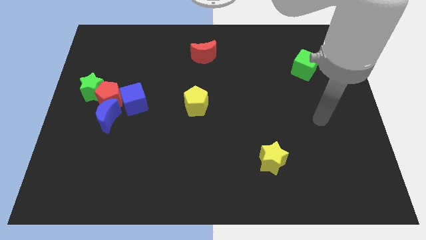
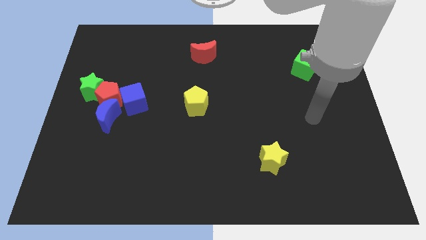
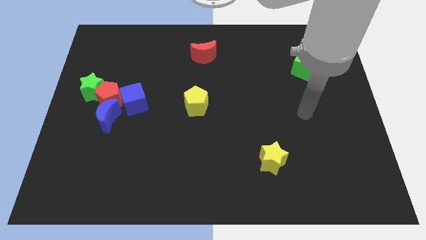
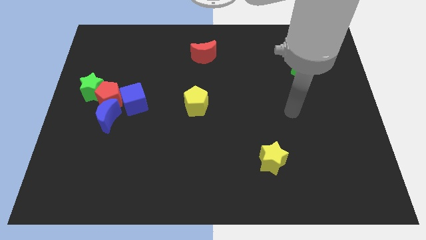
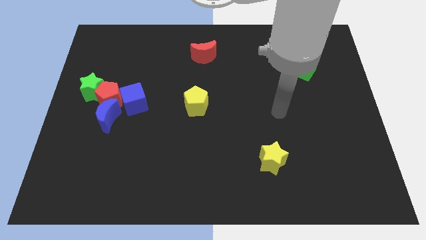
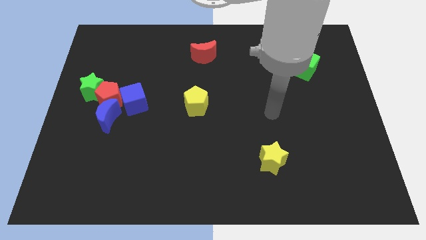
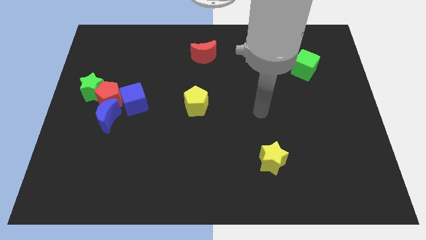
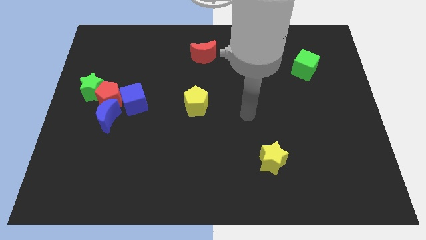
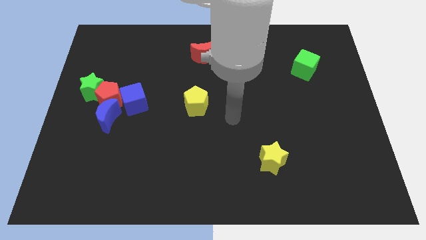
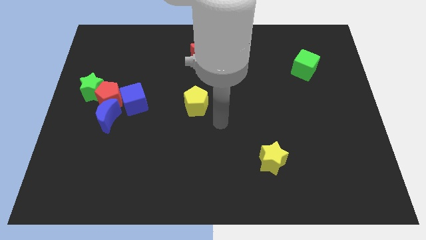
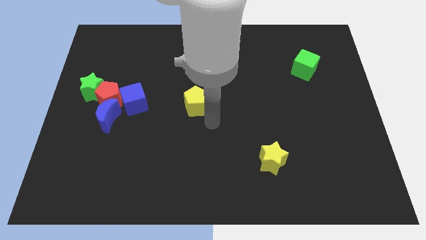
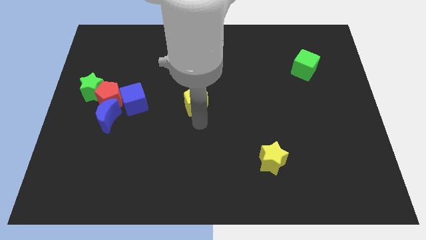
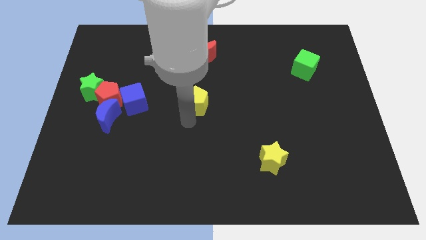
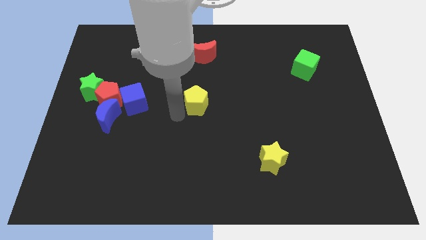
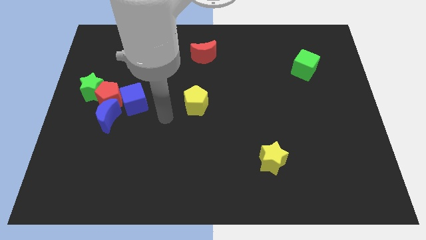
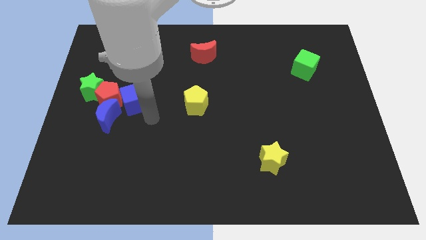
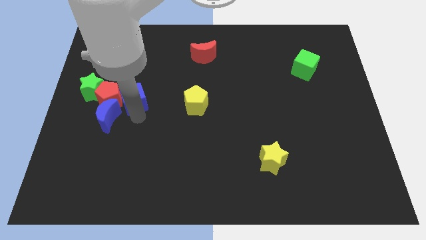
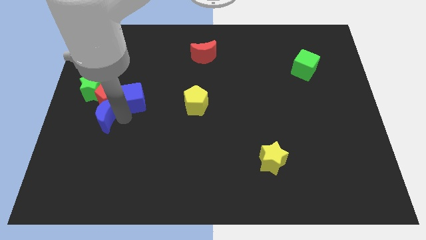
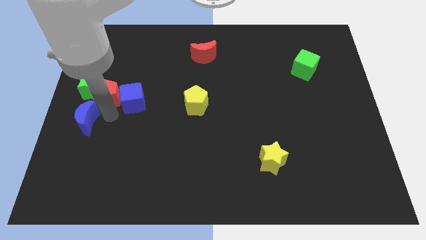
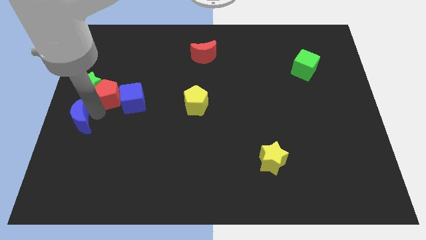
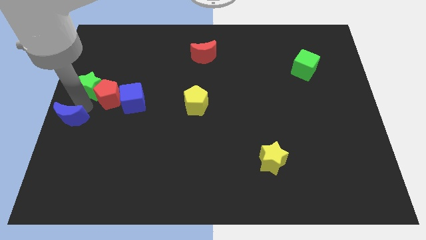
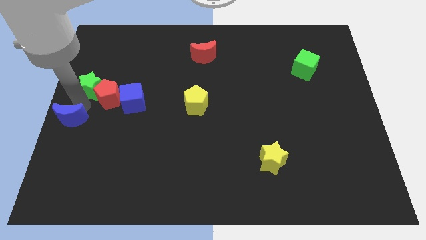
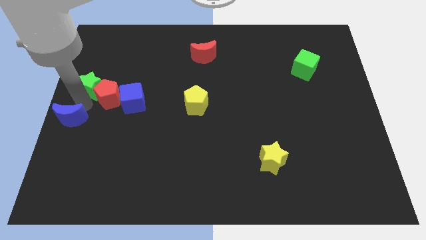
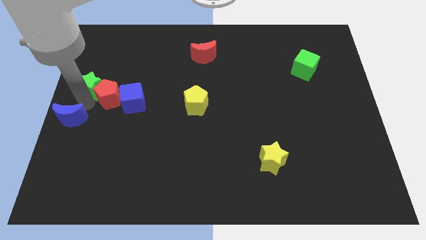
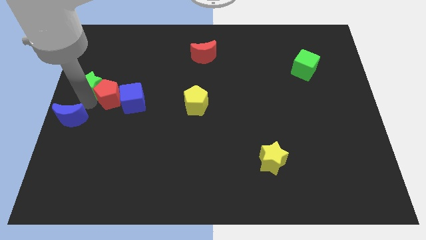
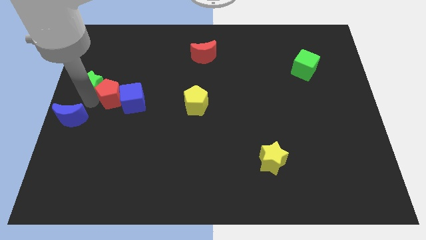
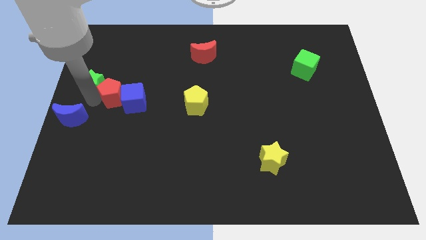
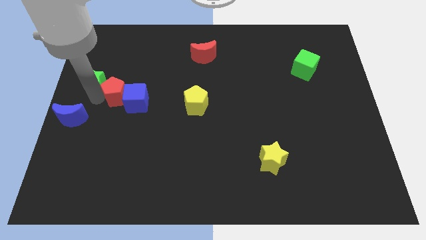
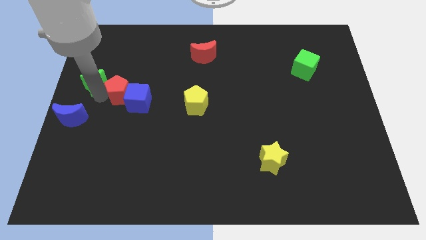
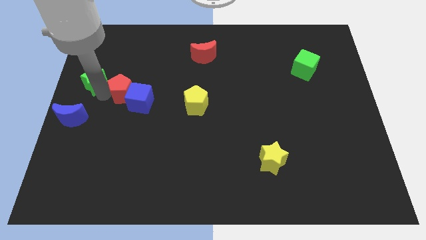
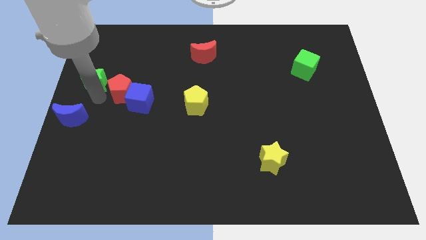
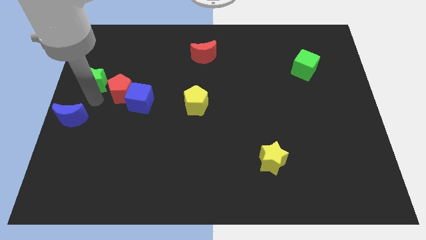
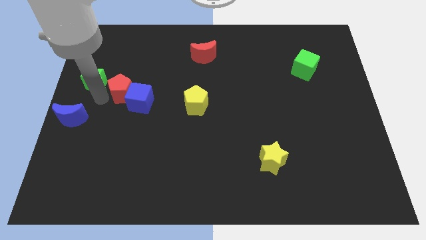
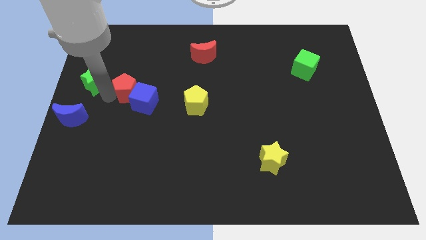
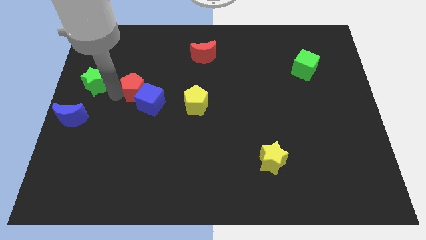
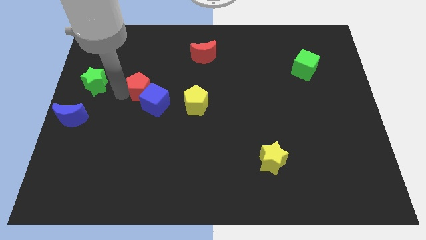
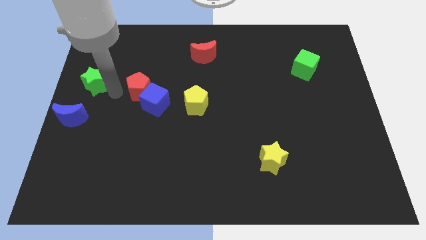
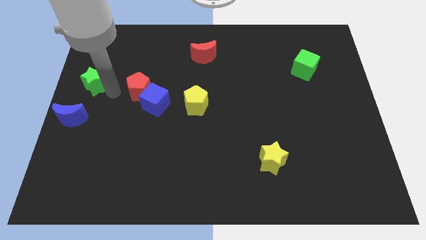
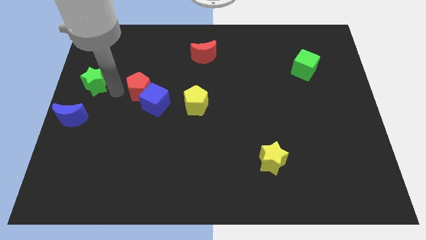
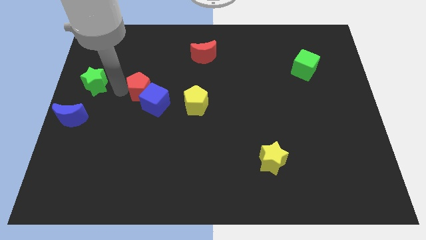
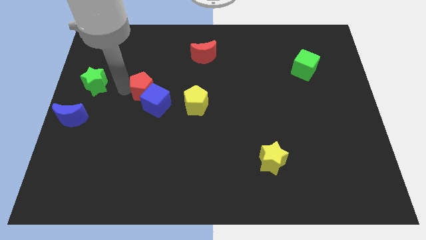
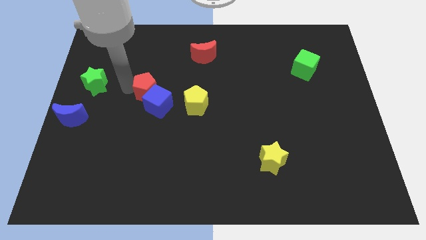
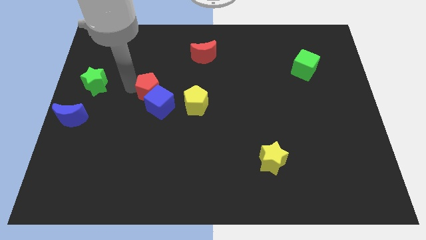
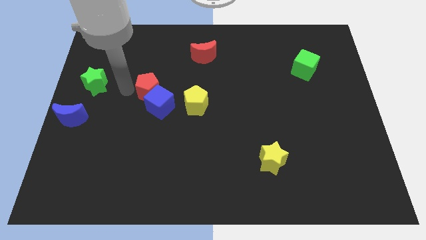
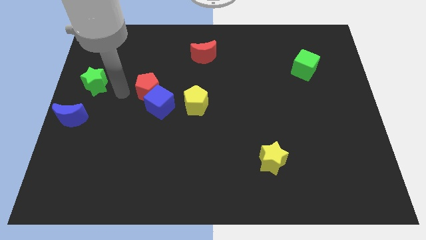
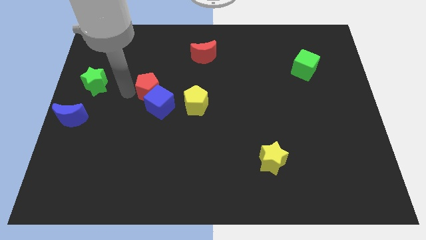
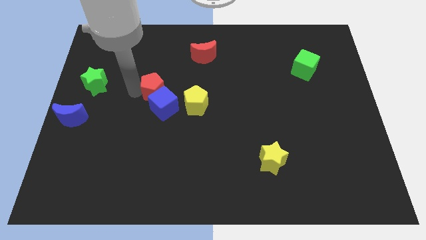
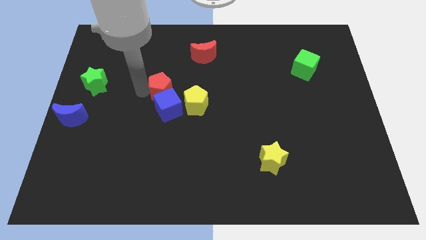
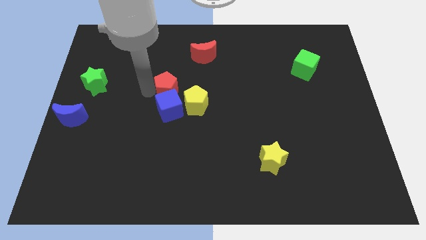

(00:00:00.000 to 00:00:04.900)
push the red pentagon to the center of the board

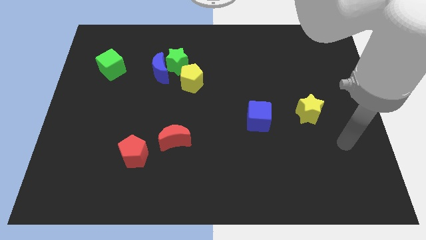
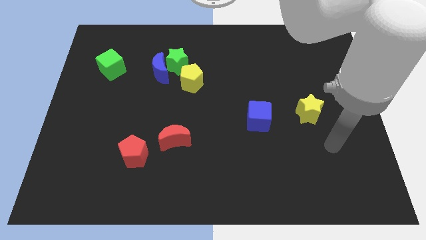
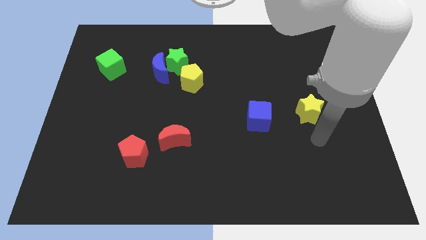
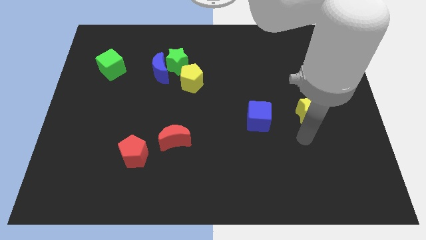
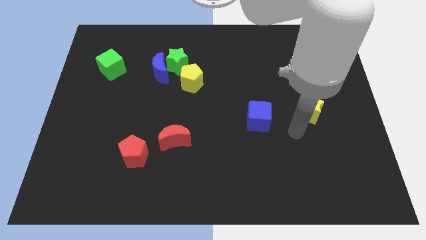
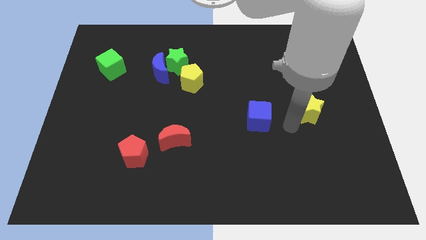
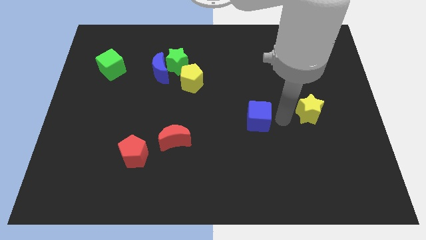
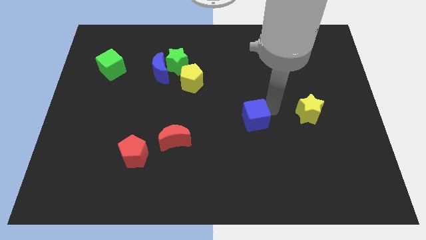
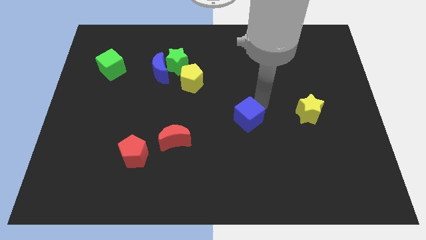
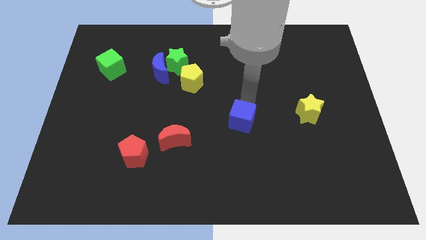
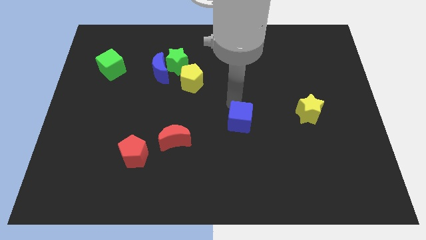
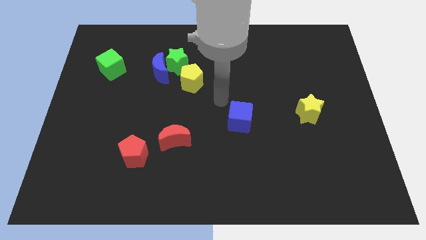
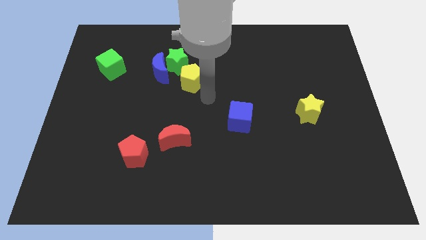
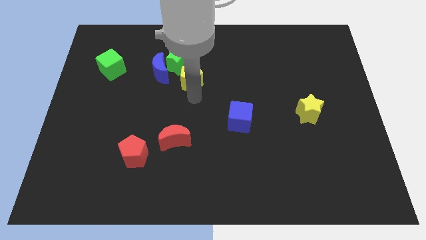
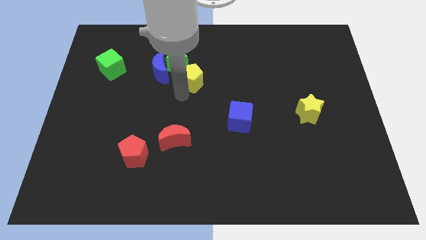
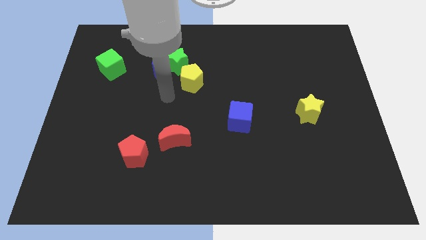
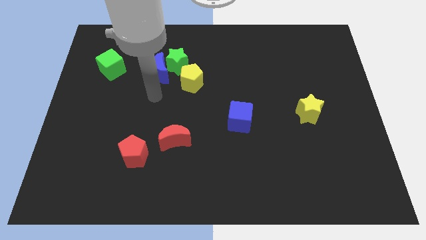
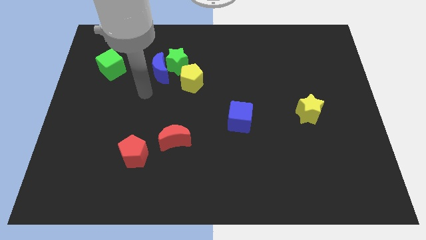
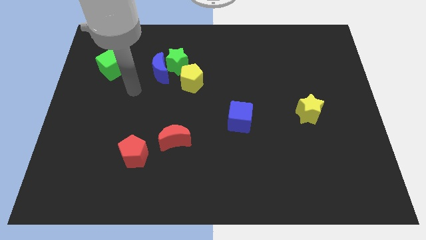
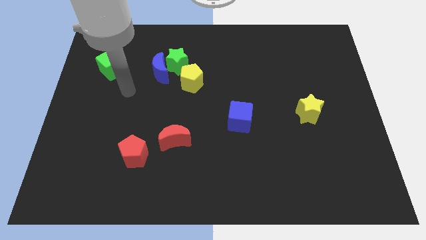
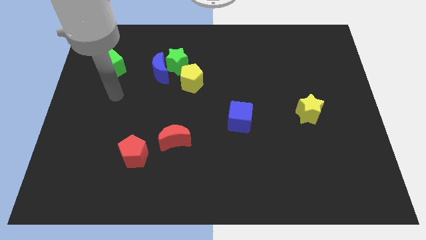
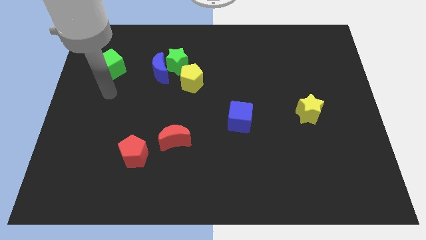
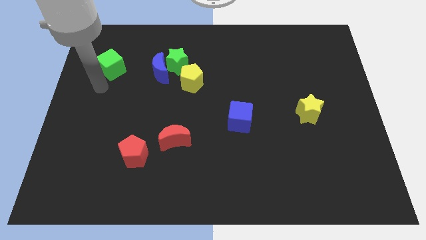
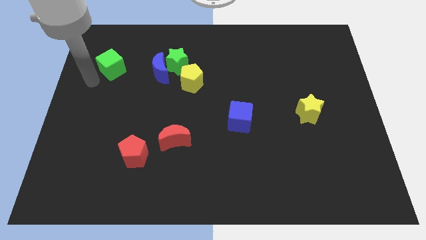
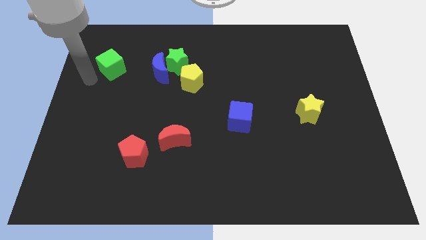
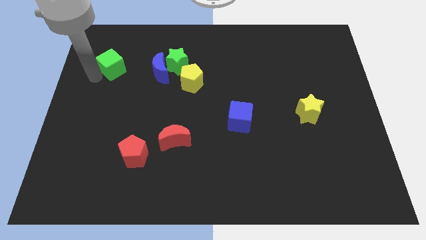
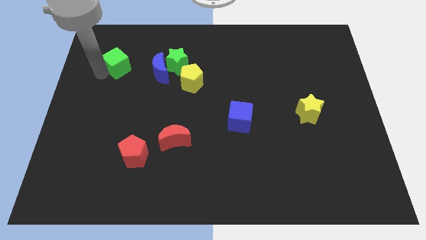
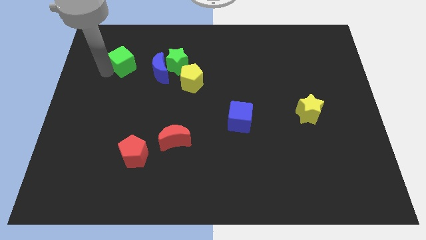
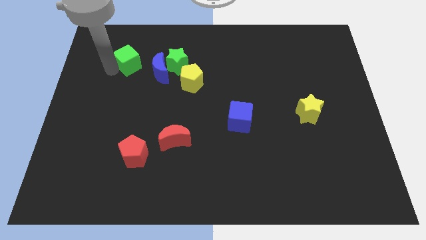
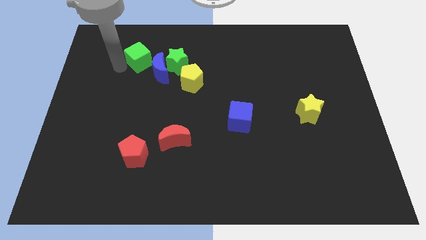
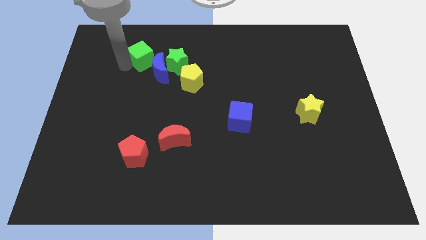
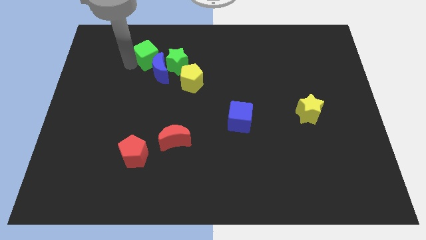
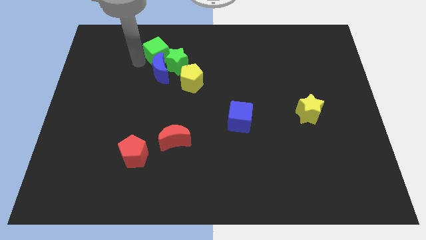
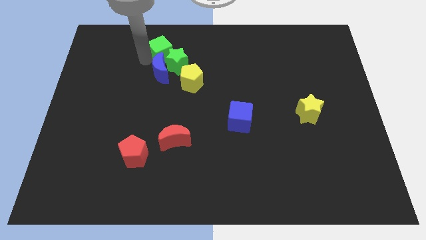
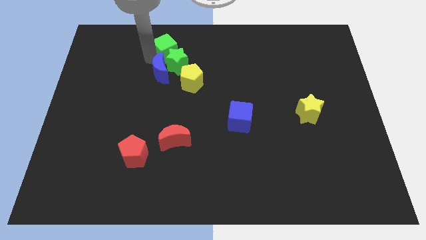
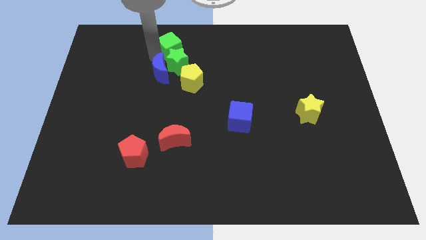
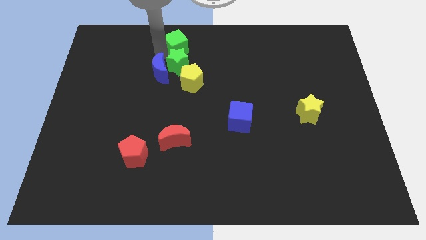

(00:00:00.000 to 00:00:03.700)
slide the green cube to the towards your base
